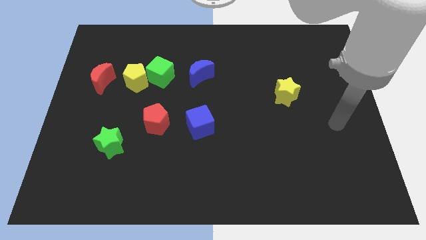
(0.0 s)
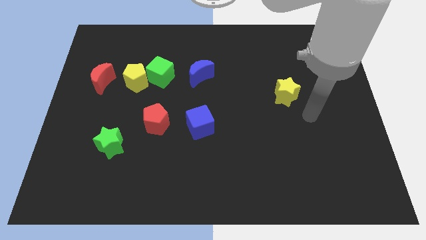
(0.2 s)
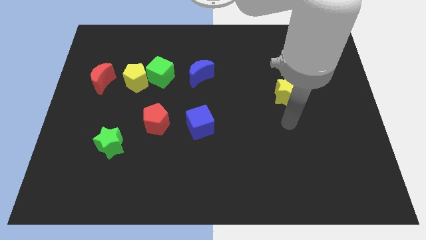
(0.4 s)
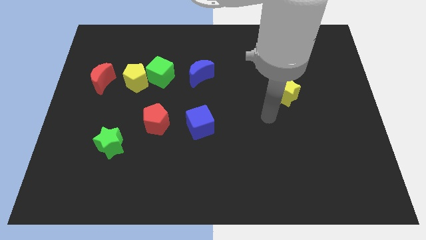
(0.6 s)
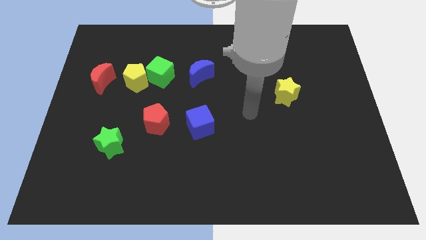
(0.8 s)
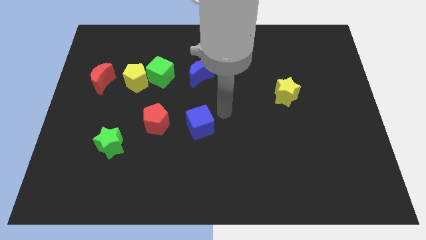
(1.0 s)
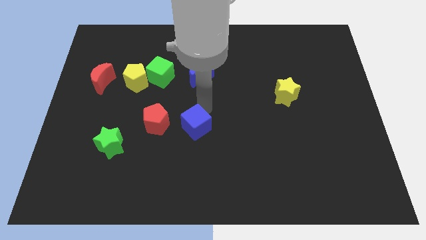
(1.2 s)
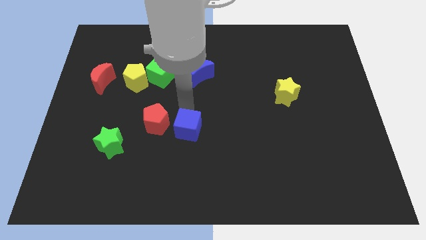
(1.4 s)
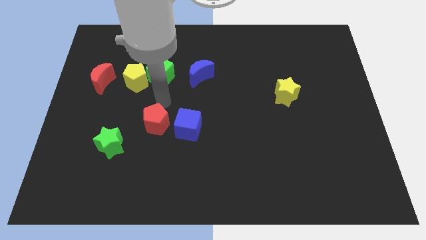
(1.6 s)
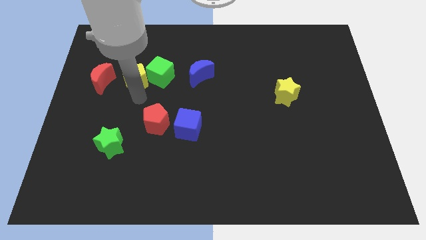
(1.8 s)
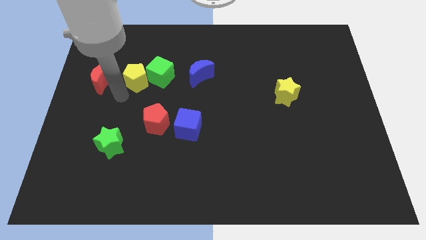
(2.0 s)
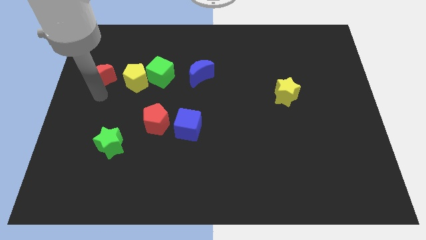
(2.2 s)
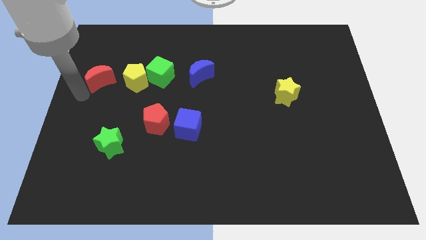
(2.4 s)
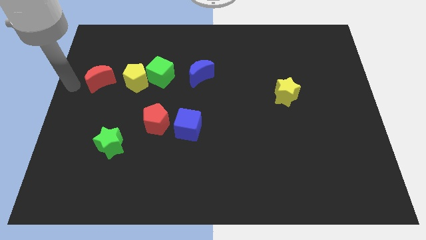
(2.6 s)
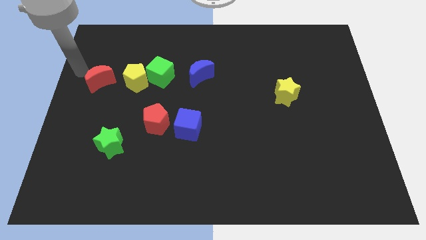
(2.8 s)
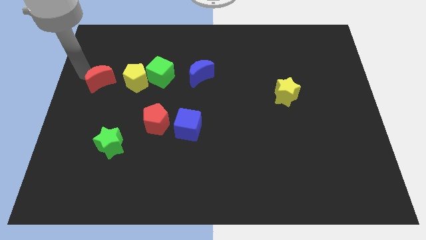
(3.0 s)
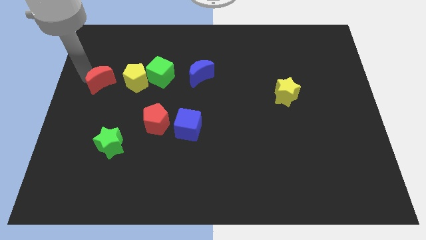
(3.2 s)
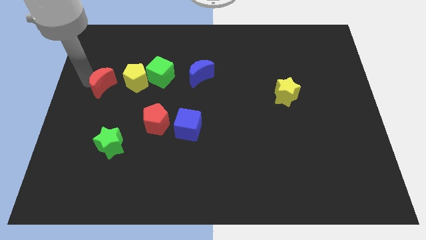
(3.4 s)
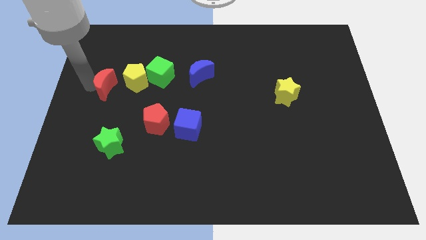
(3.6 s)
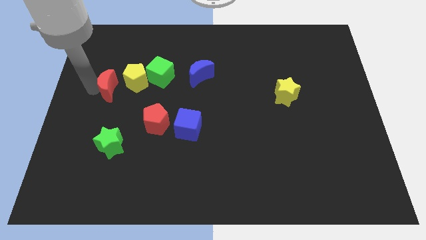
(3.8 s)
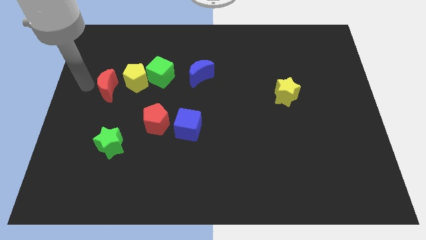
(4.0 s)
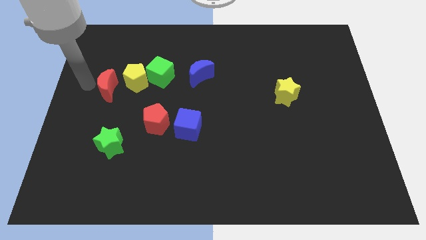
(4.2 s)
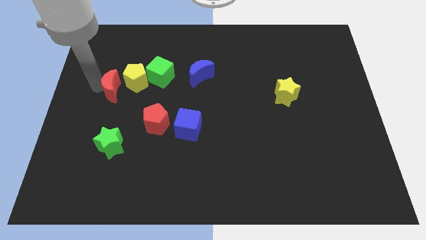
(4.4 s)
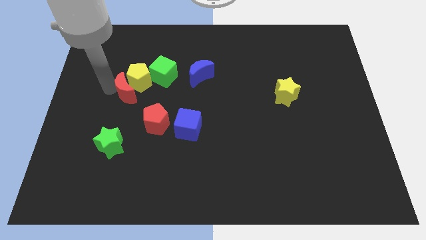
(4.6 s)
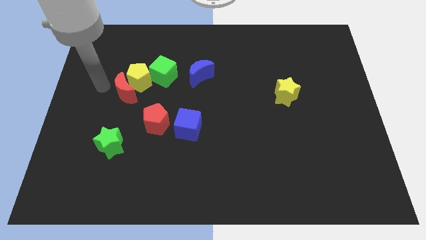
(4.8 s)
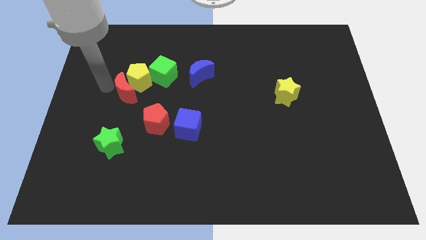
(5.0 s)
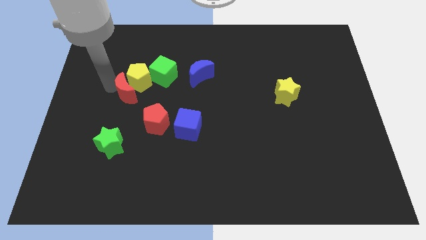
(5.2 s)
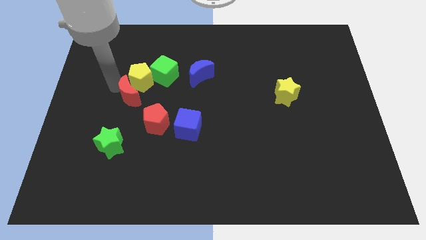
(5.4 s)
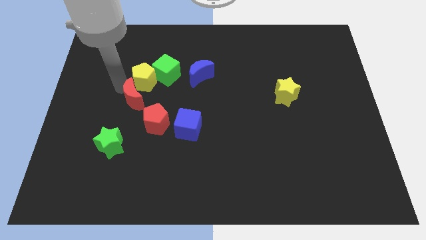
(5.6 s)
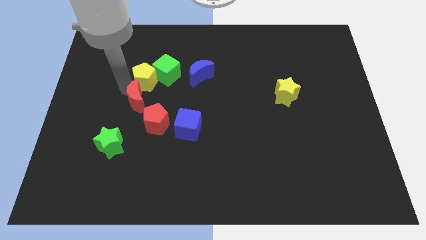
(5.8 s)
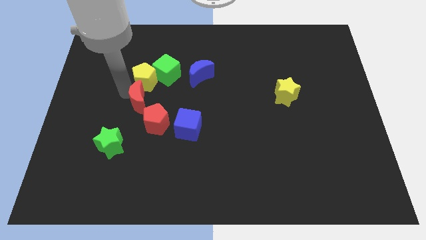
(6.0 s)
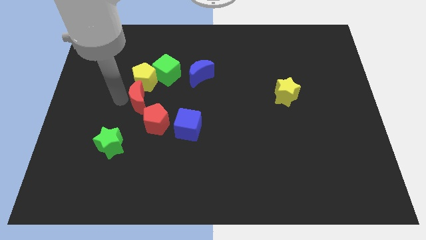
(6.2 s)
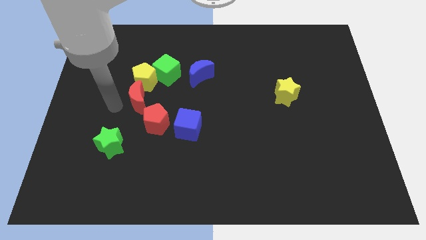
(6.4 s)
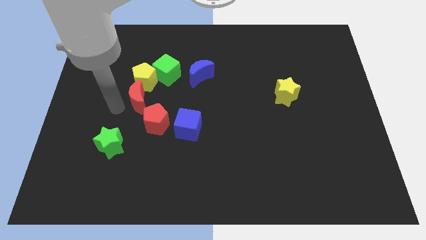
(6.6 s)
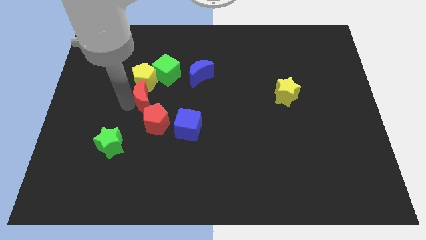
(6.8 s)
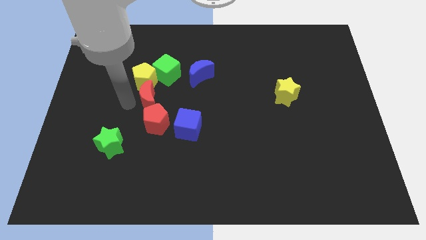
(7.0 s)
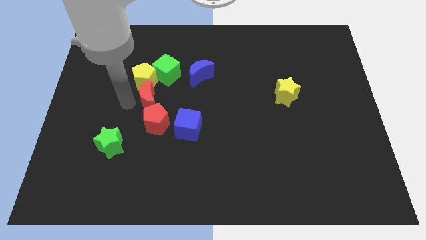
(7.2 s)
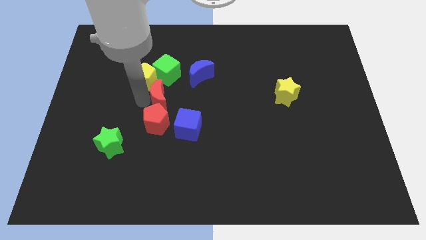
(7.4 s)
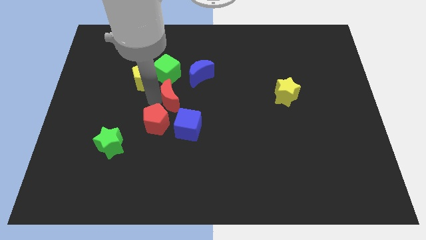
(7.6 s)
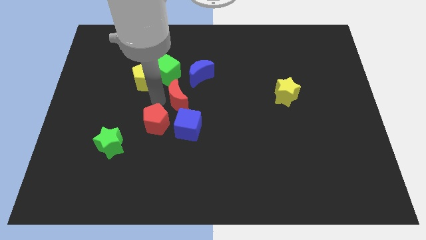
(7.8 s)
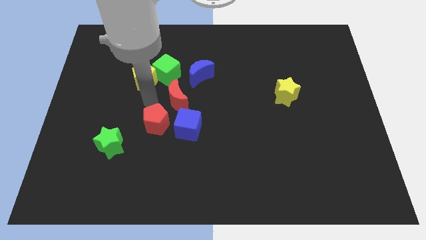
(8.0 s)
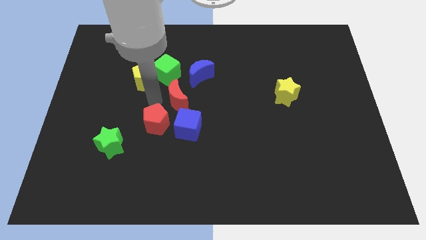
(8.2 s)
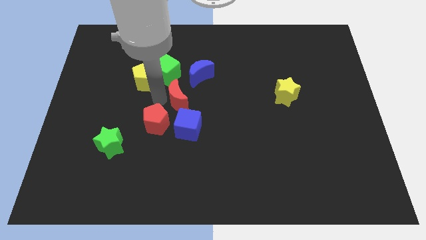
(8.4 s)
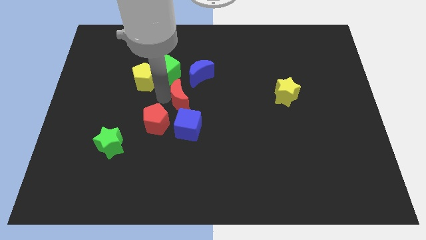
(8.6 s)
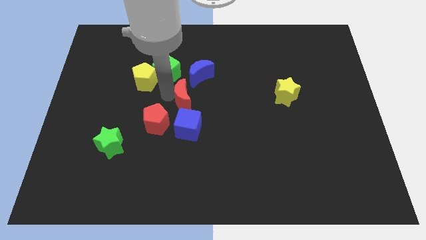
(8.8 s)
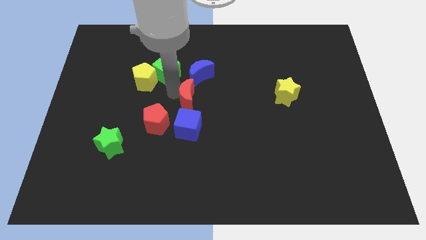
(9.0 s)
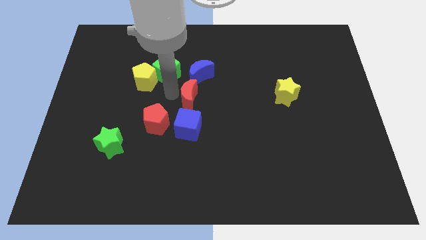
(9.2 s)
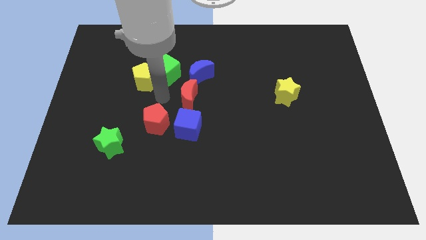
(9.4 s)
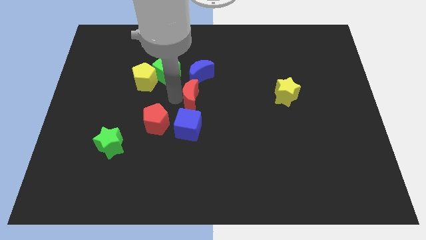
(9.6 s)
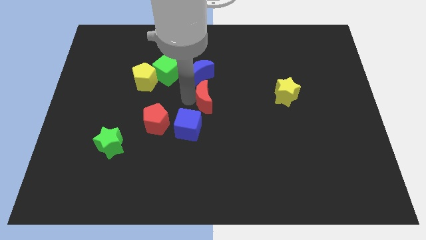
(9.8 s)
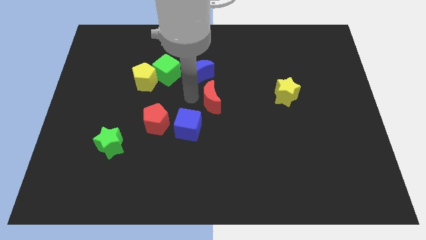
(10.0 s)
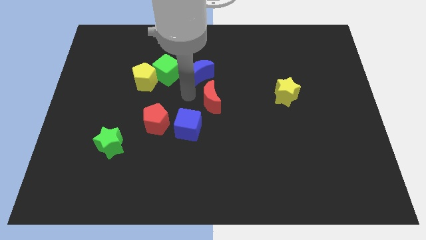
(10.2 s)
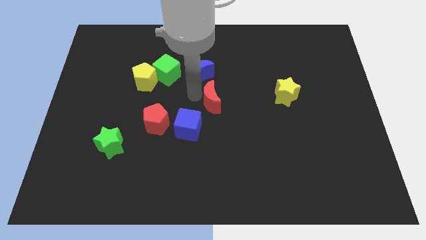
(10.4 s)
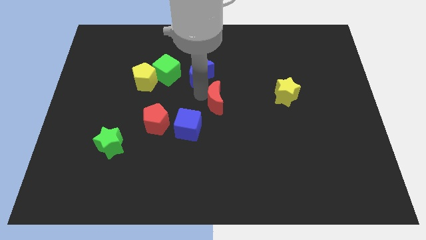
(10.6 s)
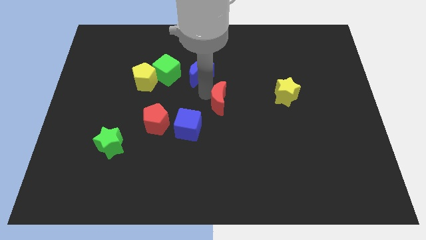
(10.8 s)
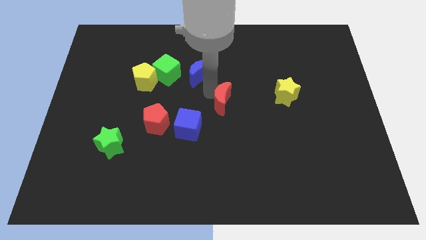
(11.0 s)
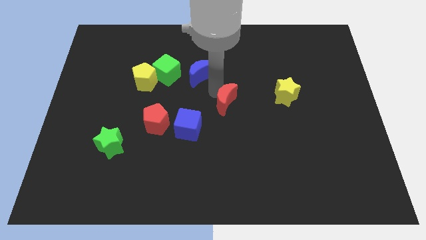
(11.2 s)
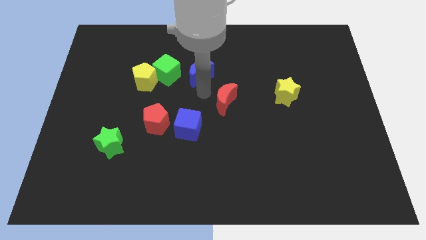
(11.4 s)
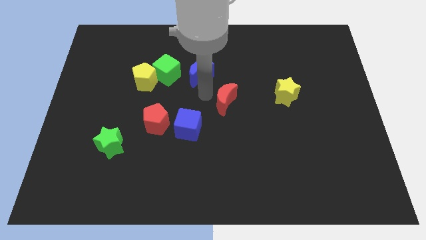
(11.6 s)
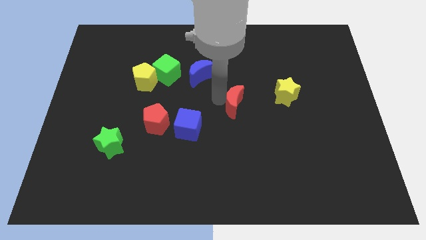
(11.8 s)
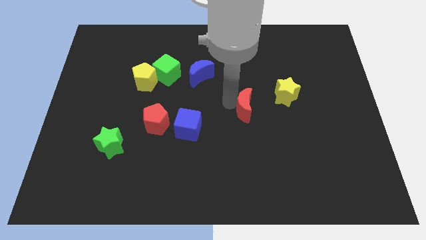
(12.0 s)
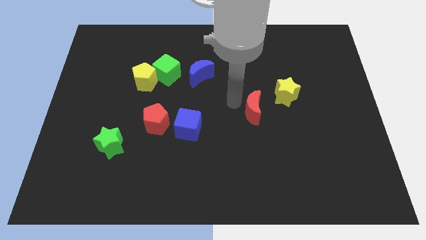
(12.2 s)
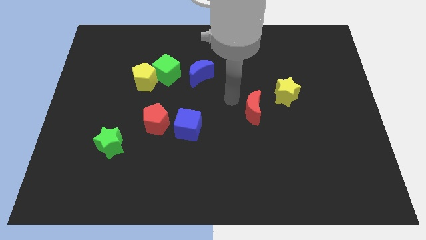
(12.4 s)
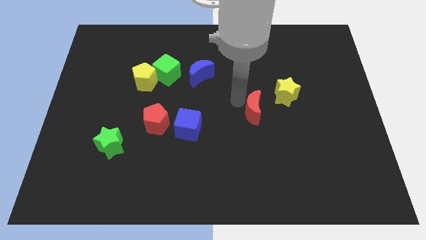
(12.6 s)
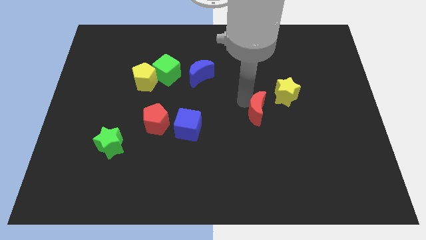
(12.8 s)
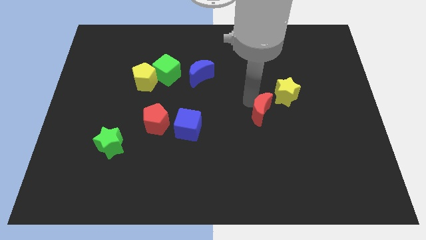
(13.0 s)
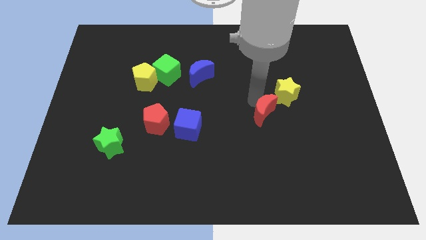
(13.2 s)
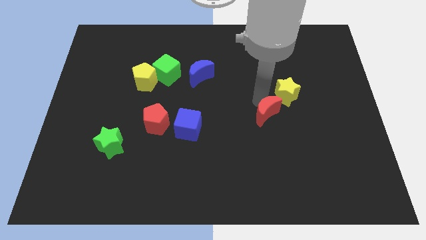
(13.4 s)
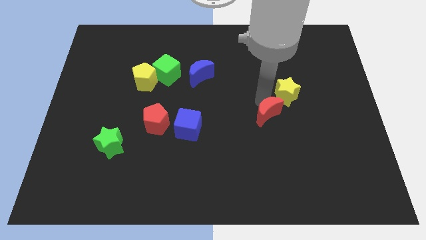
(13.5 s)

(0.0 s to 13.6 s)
move the red moon to the bottom side of the yellow star
